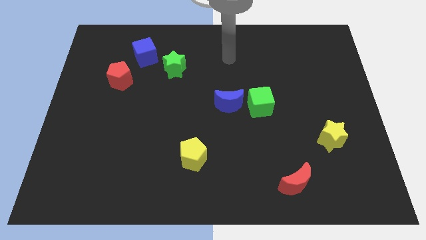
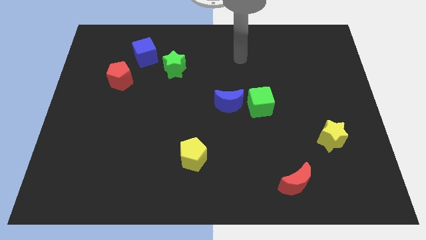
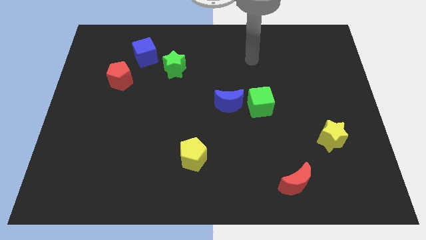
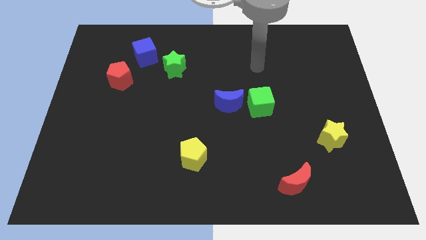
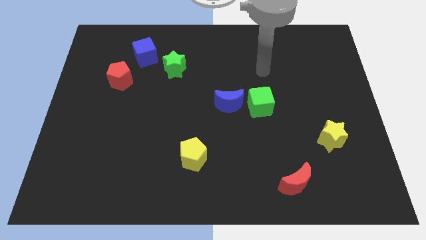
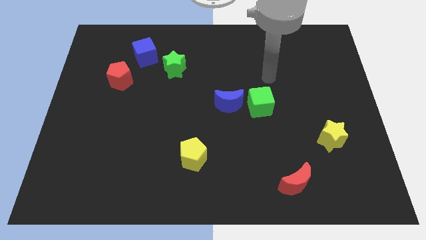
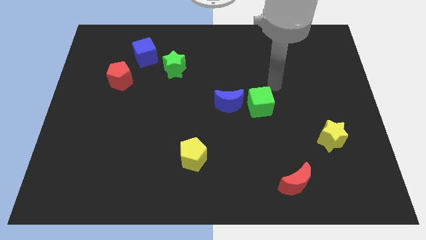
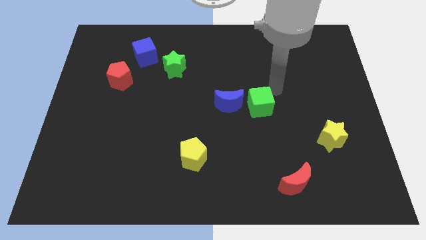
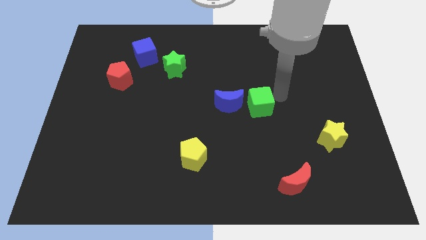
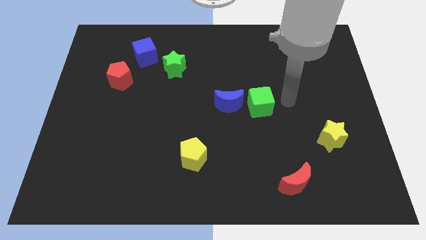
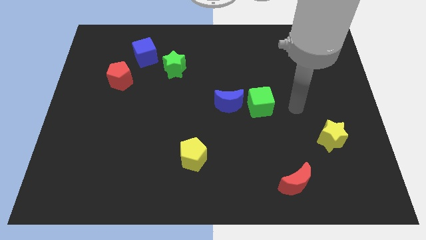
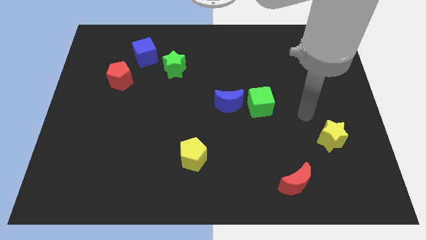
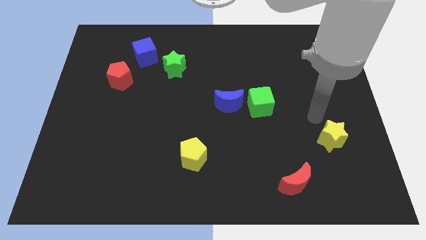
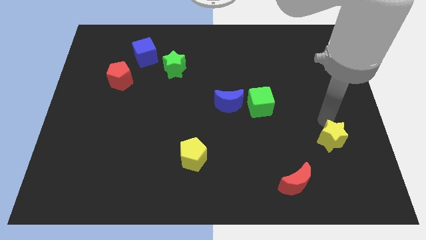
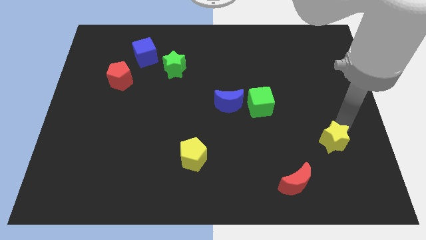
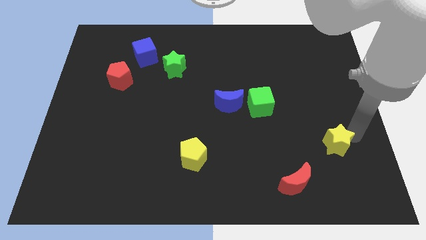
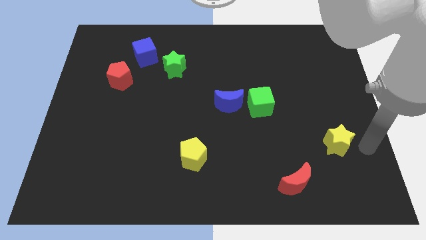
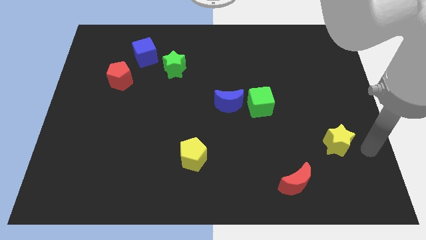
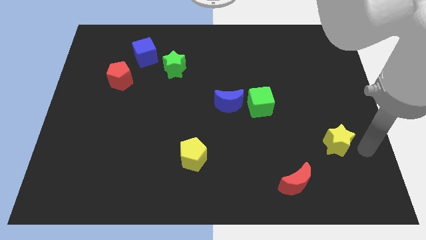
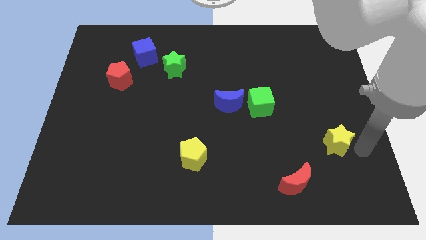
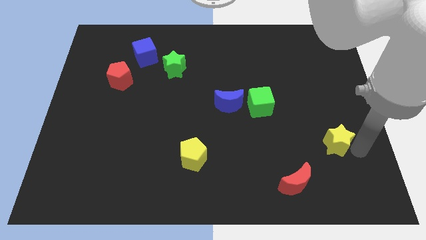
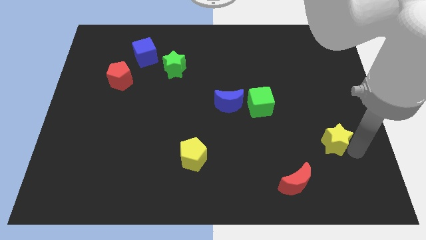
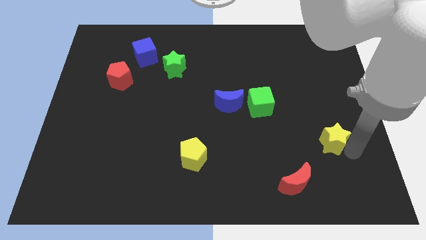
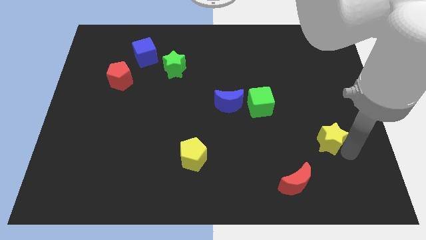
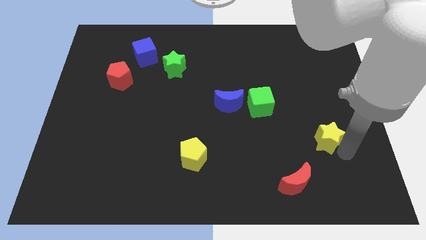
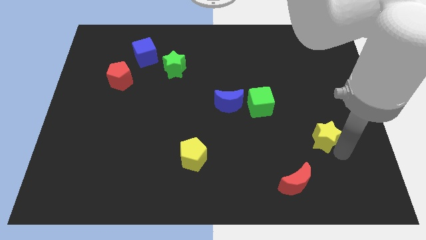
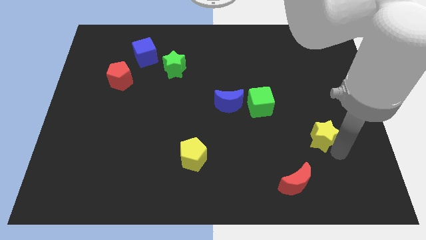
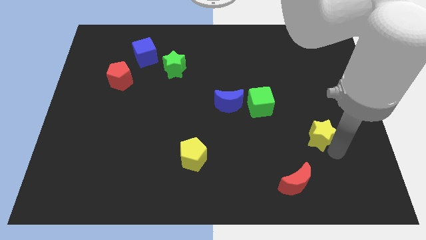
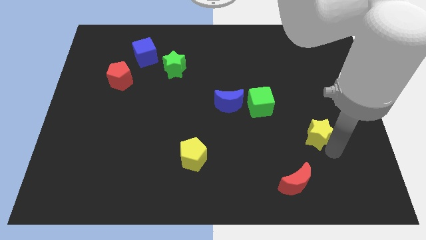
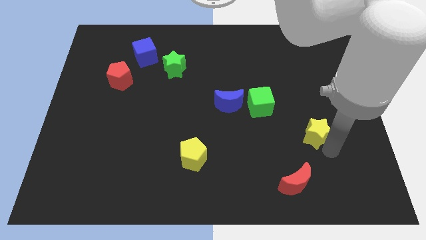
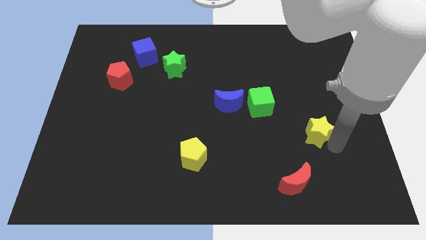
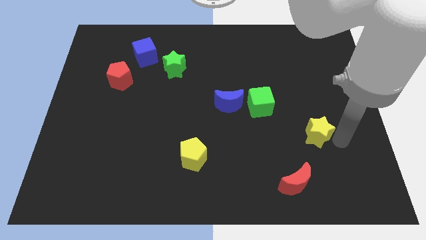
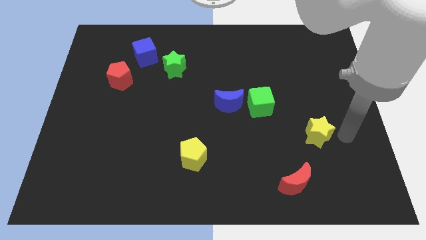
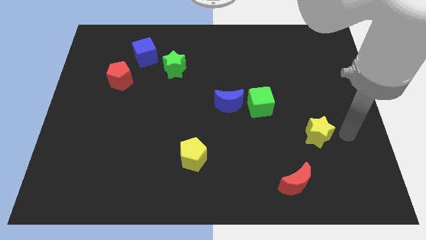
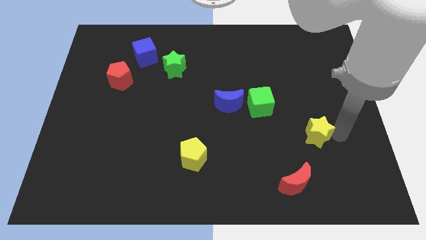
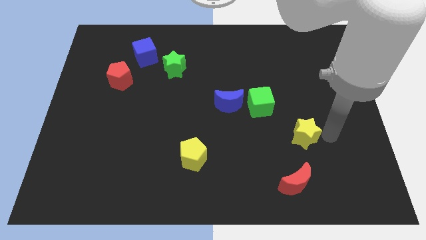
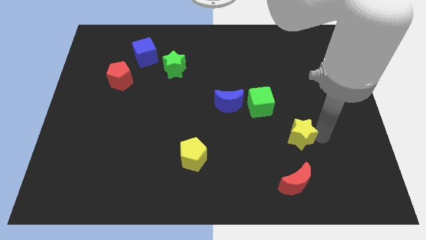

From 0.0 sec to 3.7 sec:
slightly push the yellow star left

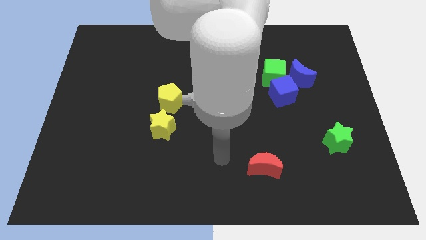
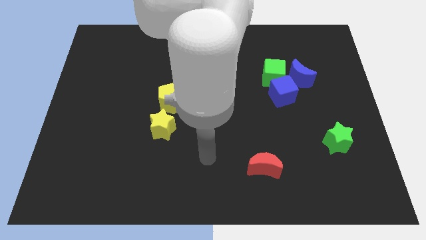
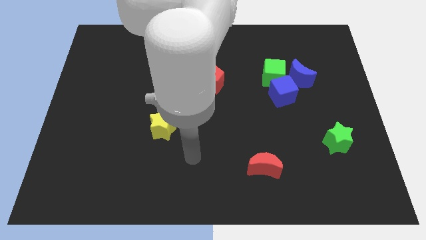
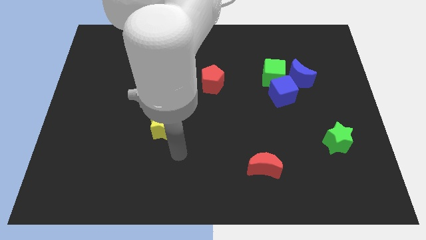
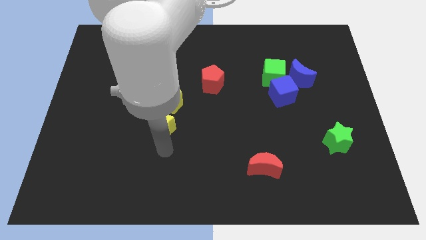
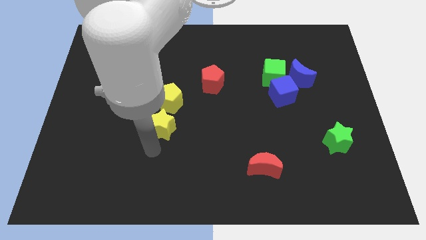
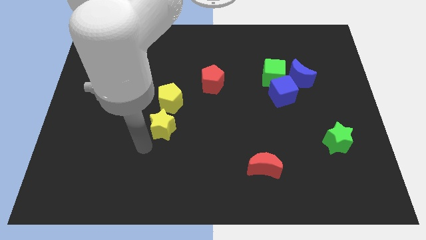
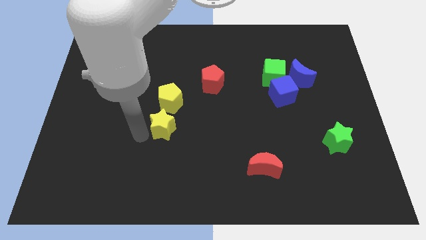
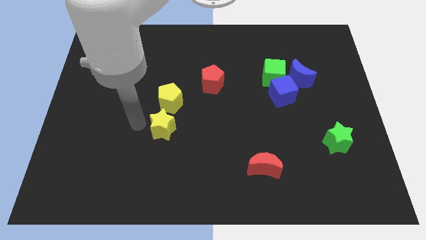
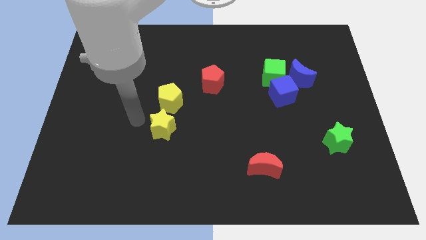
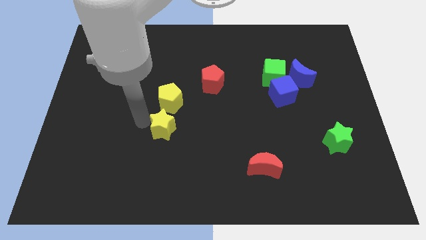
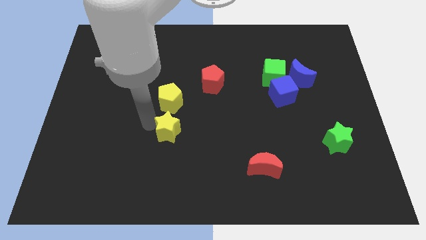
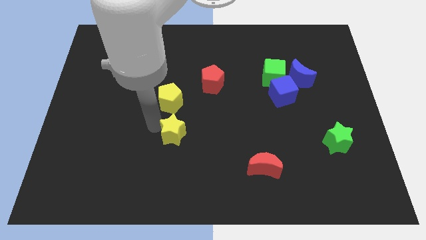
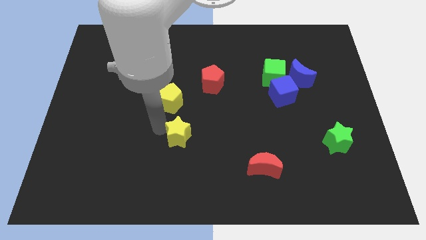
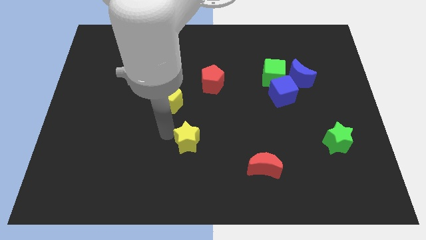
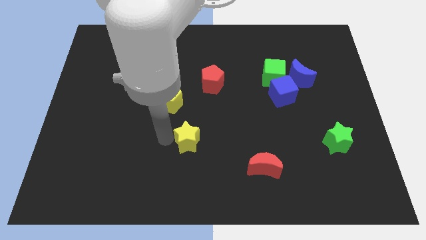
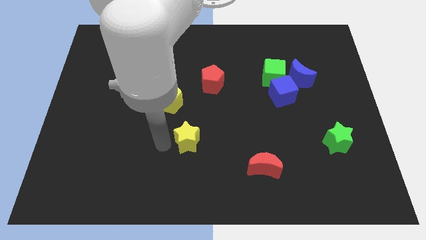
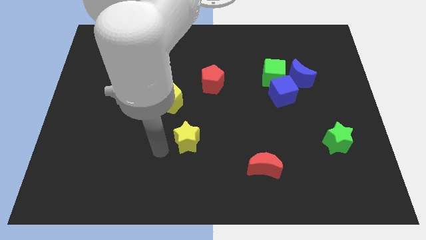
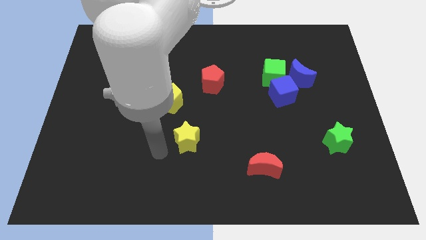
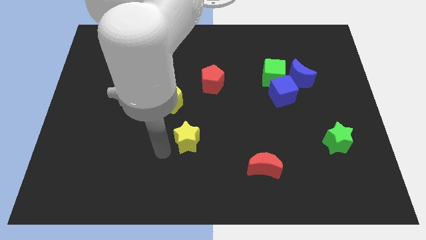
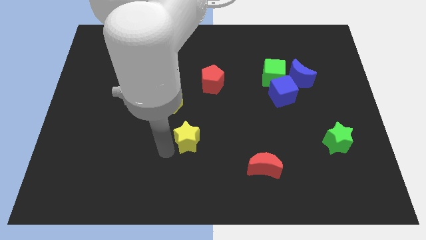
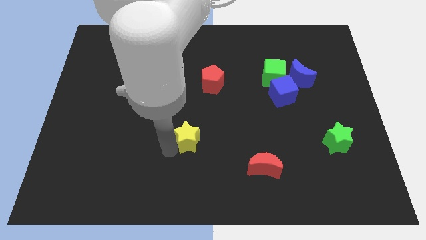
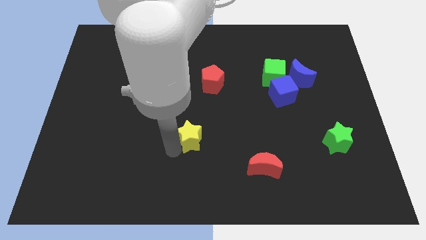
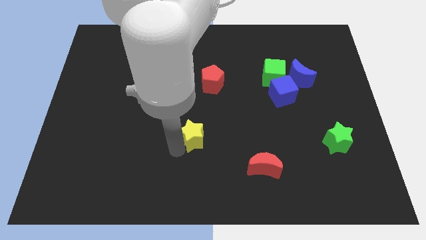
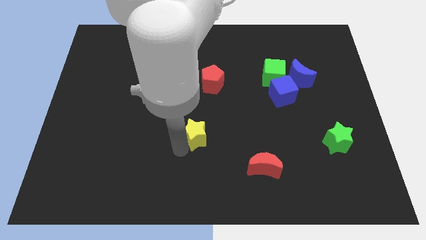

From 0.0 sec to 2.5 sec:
slightly push the yellow star to the right

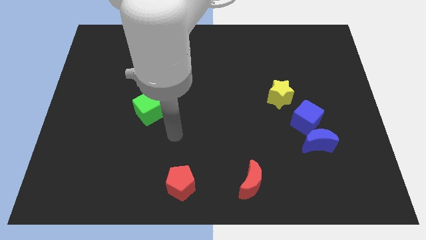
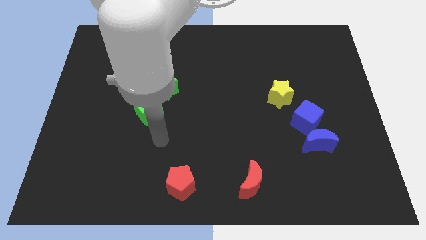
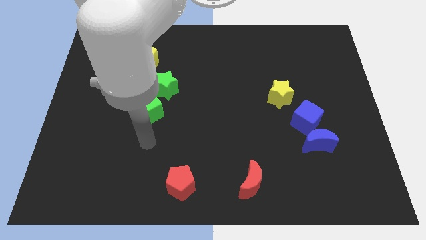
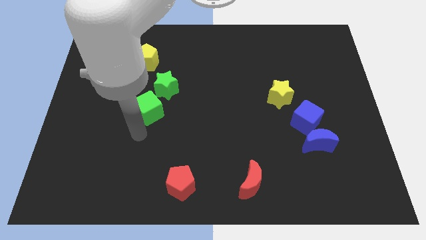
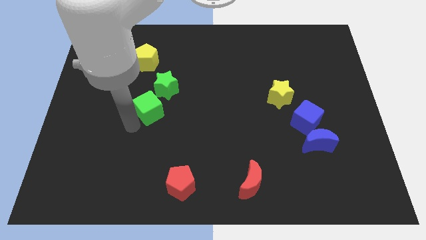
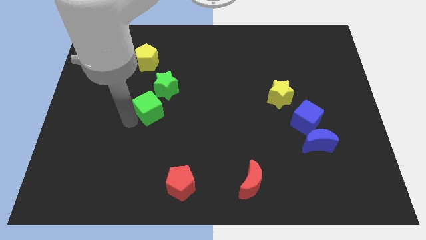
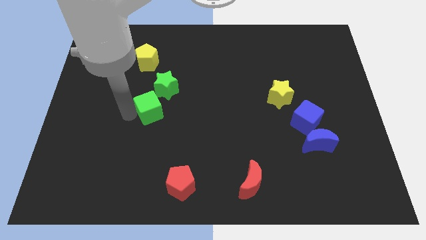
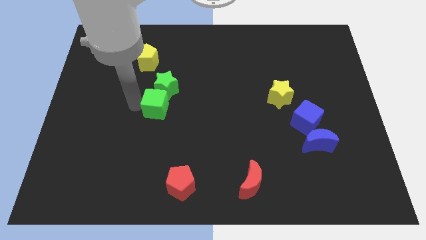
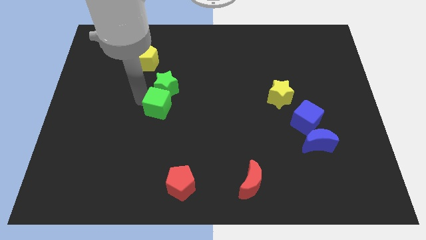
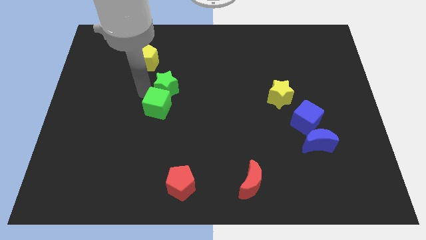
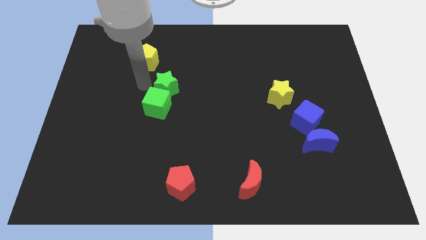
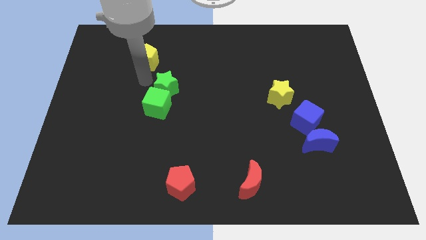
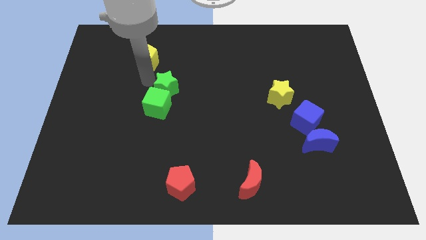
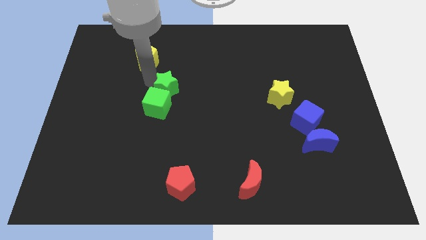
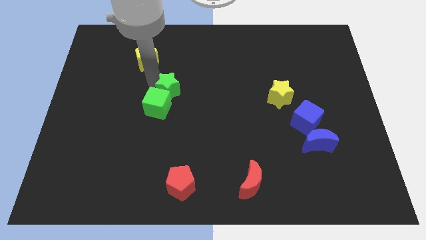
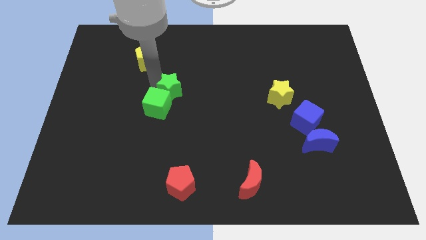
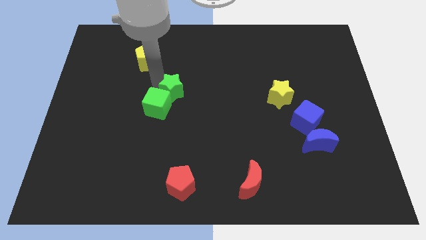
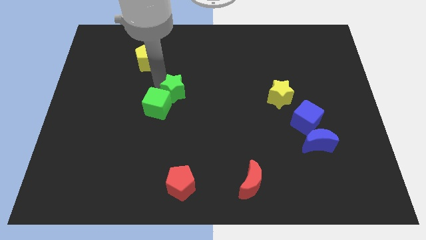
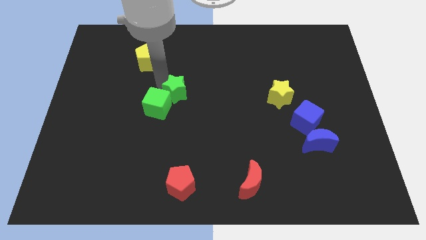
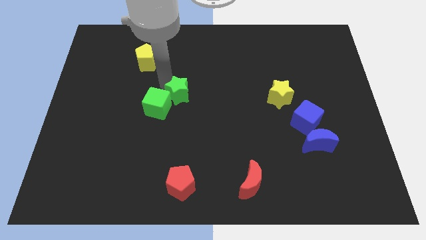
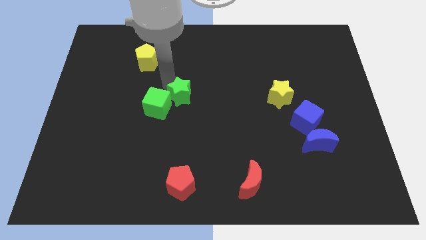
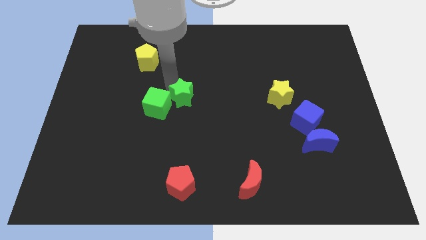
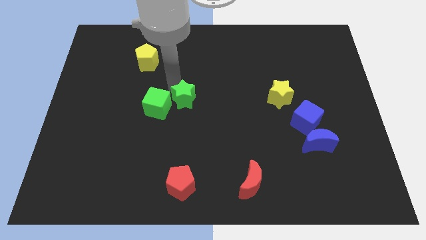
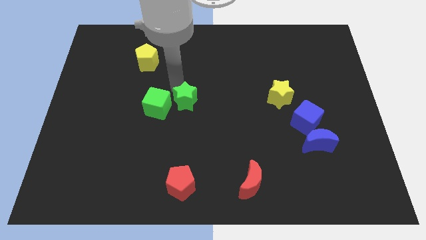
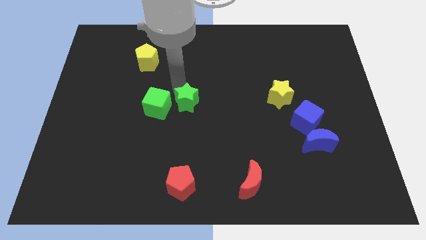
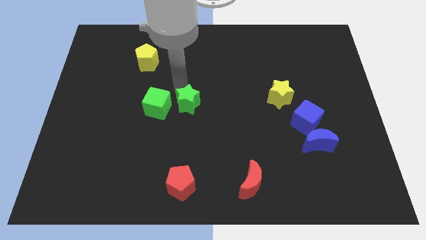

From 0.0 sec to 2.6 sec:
slide the green star a little downwards and to the right
